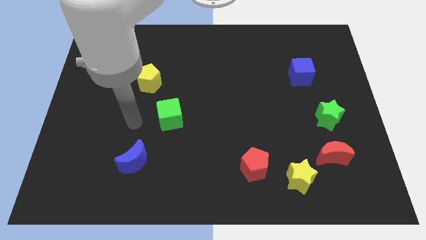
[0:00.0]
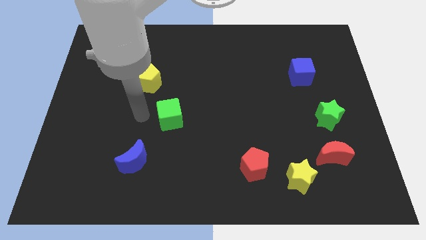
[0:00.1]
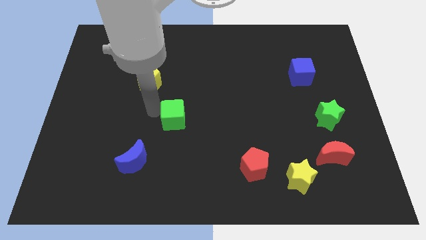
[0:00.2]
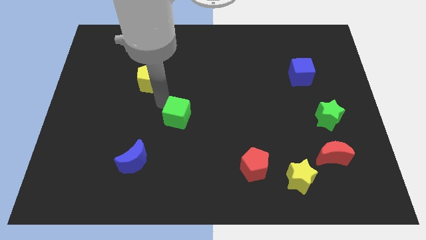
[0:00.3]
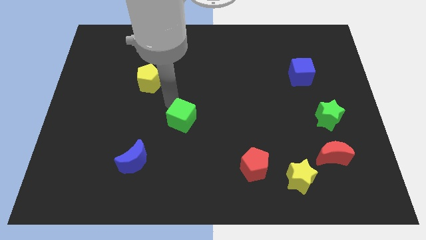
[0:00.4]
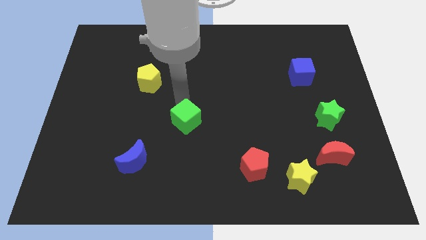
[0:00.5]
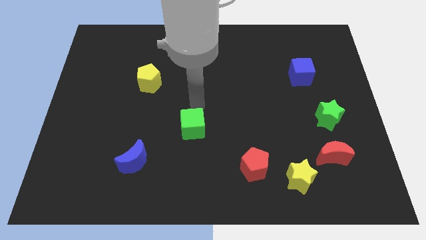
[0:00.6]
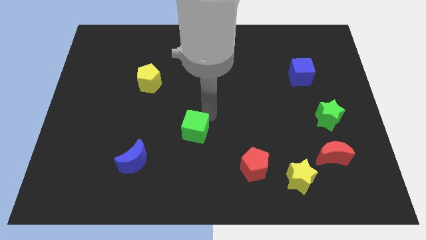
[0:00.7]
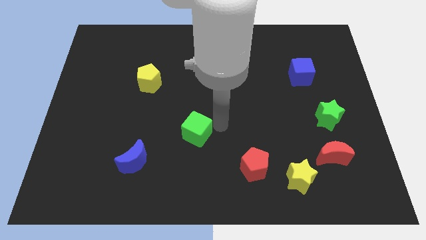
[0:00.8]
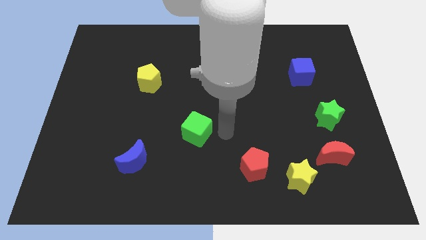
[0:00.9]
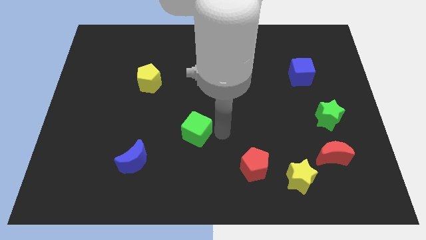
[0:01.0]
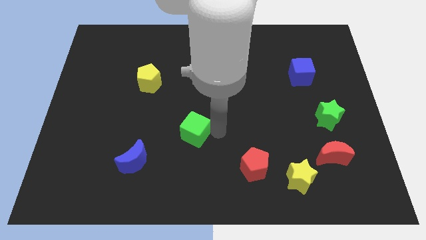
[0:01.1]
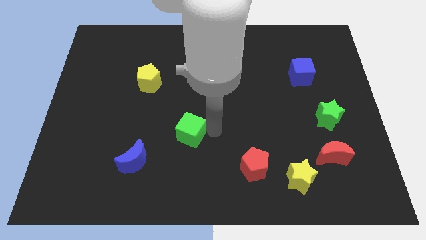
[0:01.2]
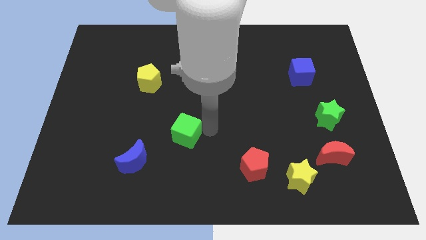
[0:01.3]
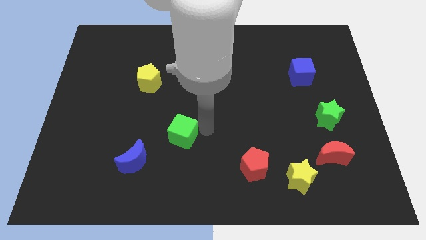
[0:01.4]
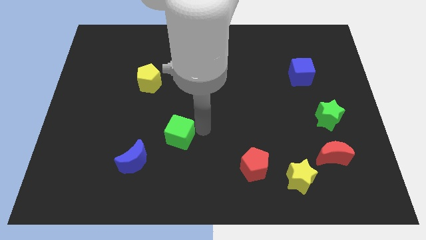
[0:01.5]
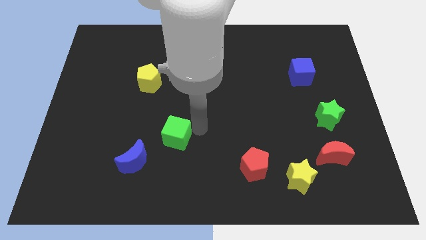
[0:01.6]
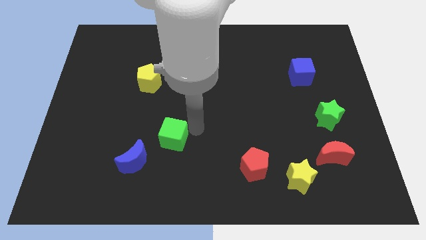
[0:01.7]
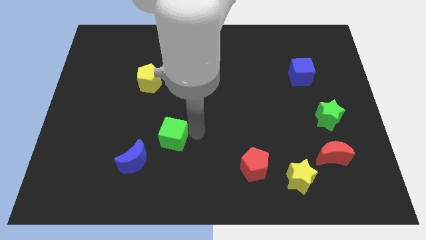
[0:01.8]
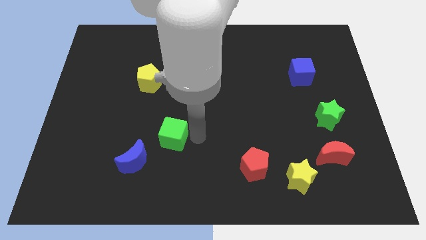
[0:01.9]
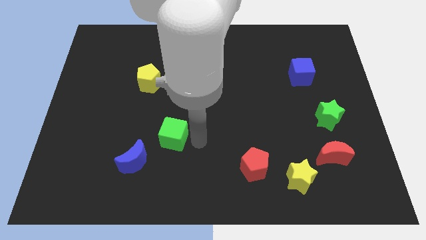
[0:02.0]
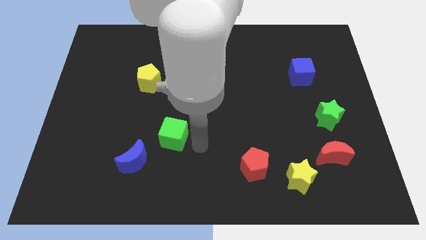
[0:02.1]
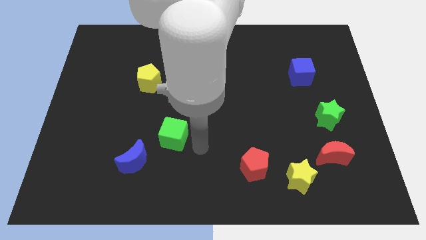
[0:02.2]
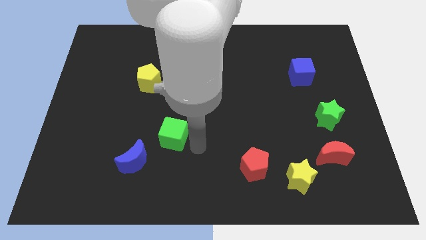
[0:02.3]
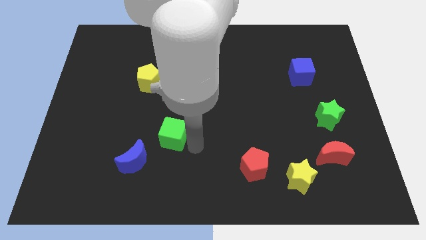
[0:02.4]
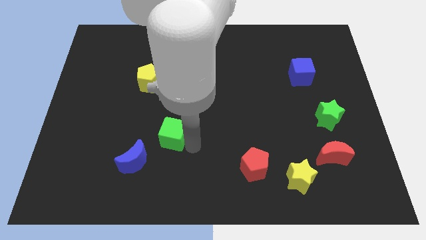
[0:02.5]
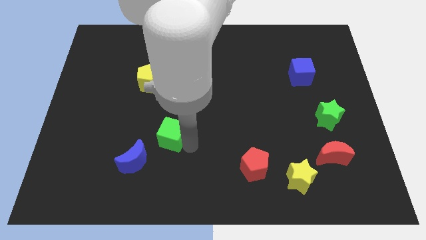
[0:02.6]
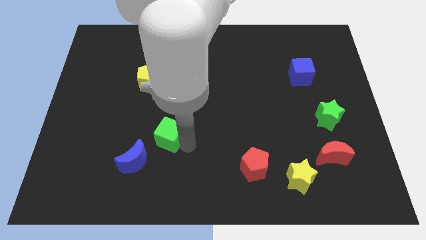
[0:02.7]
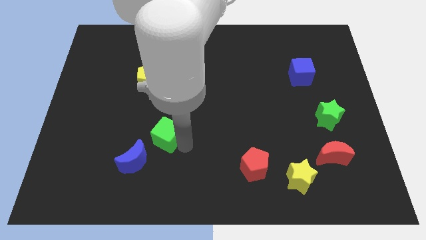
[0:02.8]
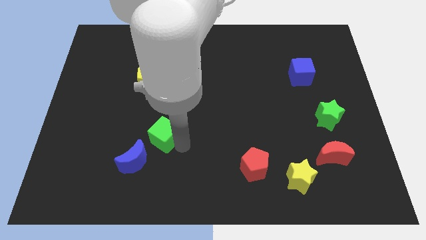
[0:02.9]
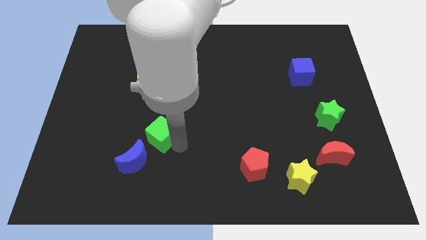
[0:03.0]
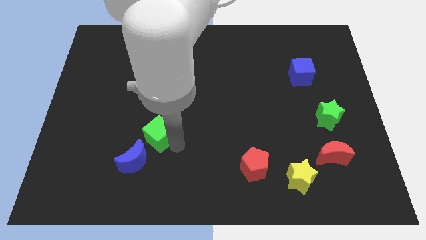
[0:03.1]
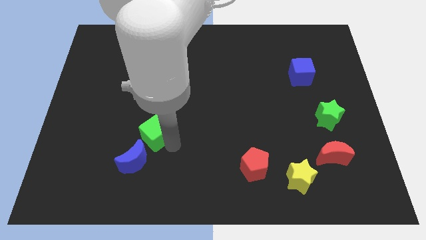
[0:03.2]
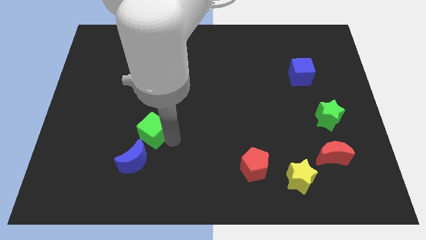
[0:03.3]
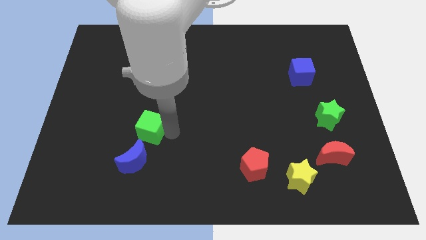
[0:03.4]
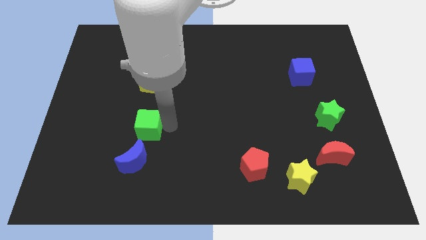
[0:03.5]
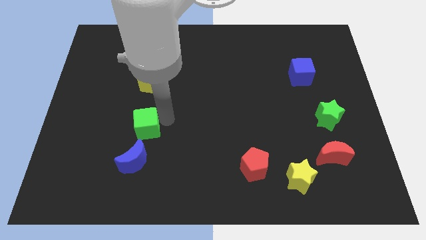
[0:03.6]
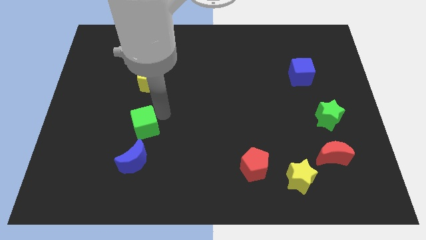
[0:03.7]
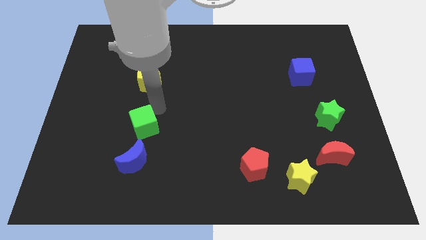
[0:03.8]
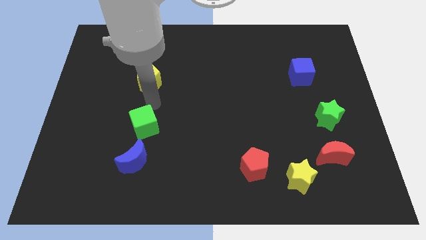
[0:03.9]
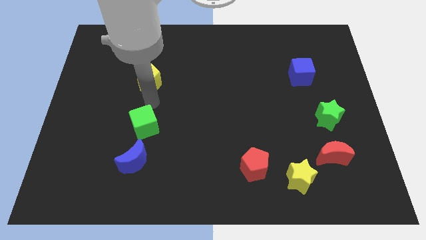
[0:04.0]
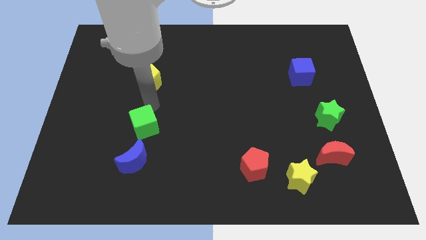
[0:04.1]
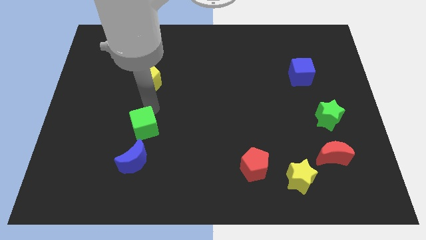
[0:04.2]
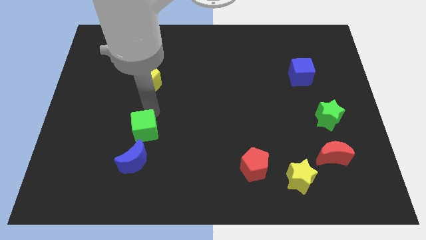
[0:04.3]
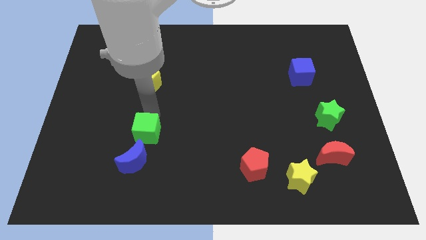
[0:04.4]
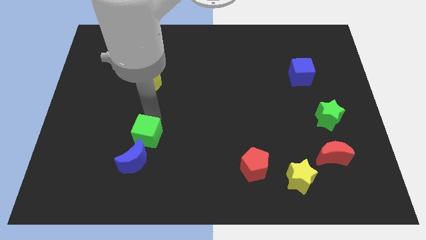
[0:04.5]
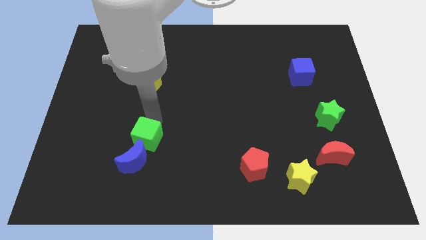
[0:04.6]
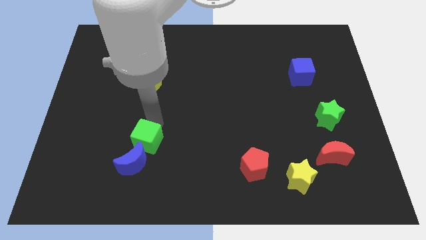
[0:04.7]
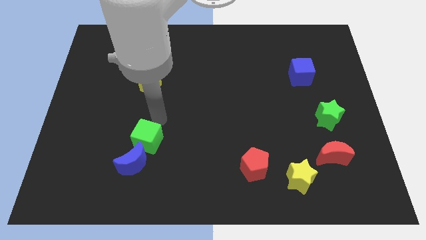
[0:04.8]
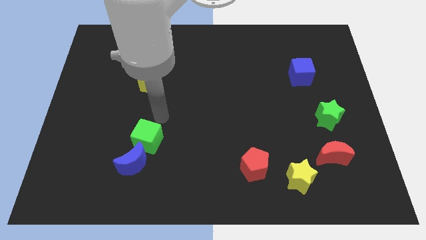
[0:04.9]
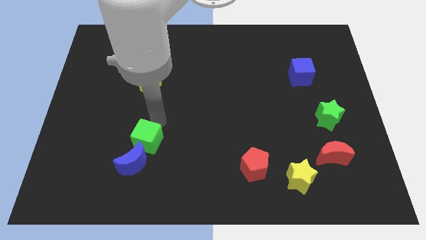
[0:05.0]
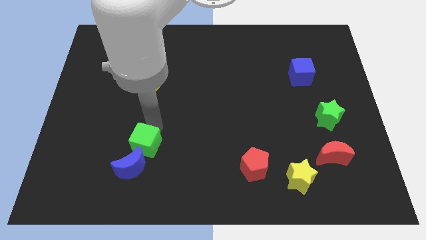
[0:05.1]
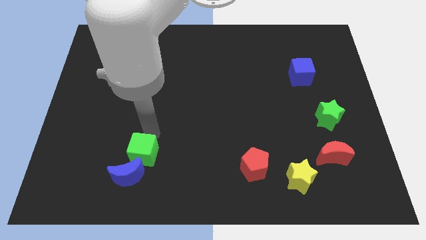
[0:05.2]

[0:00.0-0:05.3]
slide the green cube close to the blue moon

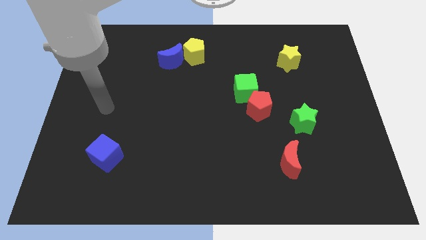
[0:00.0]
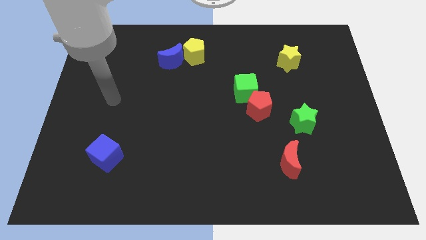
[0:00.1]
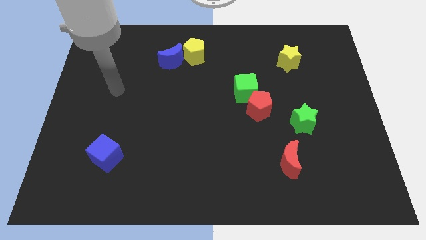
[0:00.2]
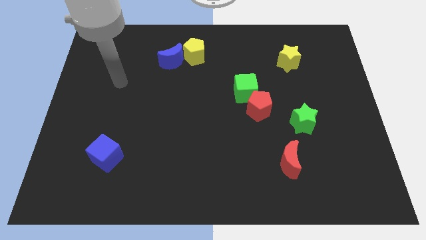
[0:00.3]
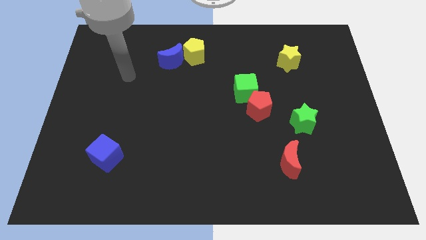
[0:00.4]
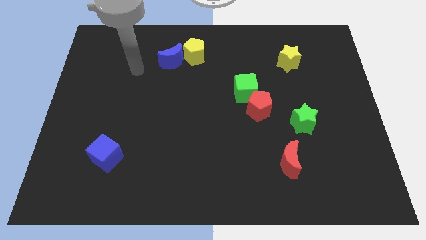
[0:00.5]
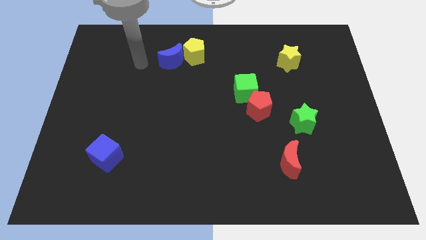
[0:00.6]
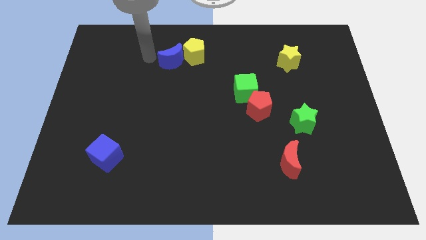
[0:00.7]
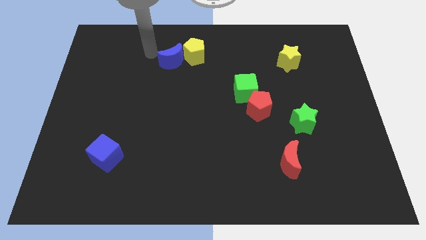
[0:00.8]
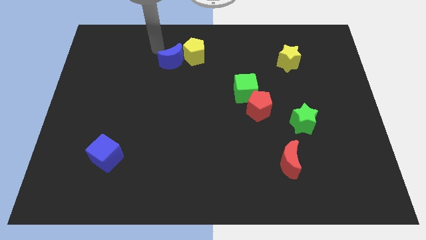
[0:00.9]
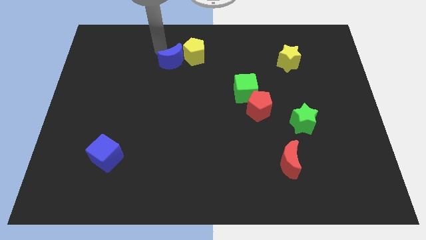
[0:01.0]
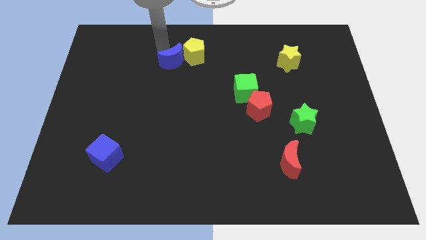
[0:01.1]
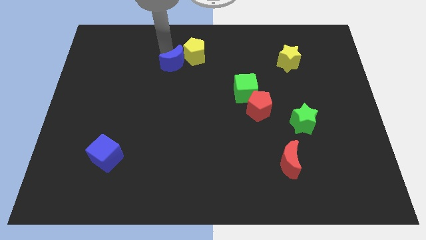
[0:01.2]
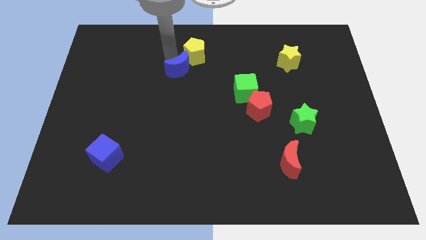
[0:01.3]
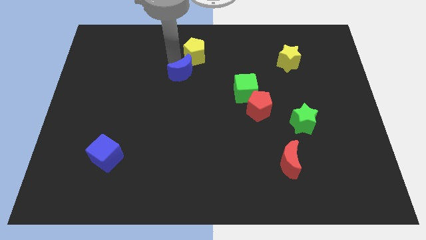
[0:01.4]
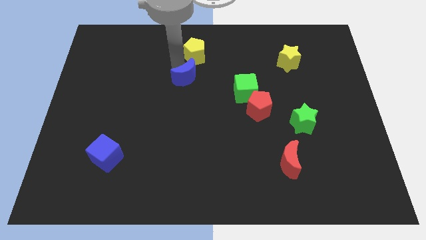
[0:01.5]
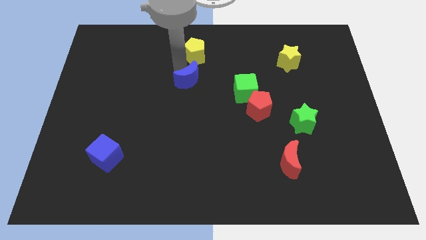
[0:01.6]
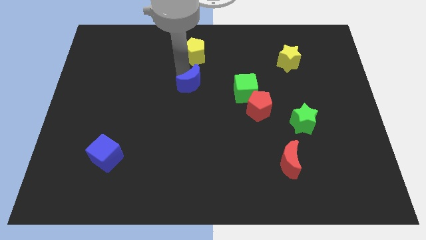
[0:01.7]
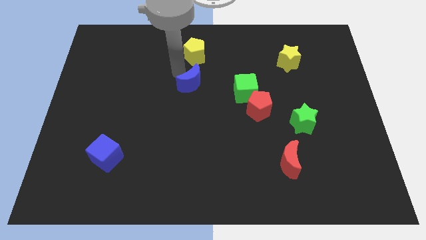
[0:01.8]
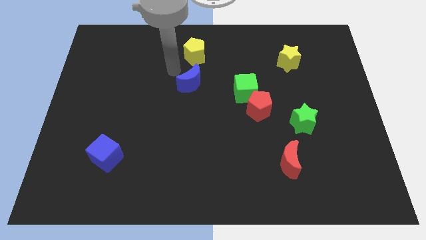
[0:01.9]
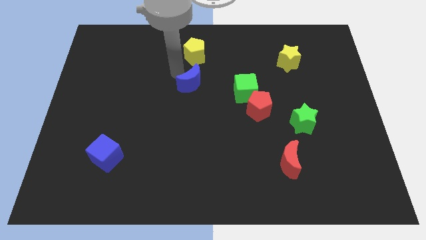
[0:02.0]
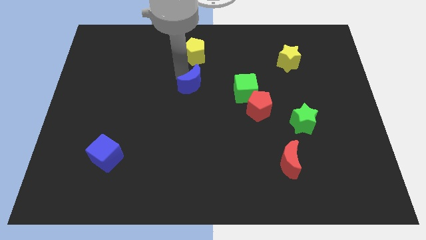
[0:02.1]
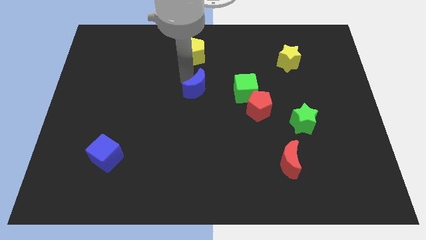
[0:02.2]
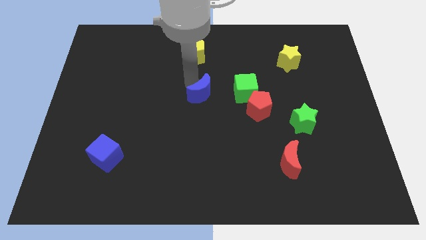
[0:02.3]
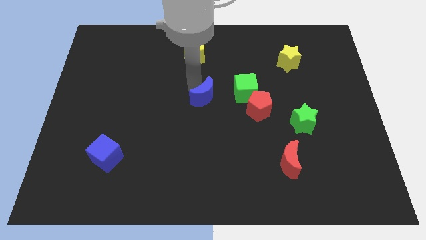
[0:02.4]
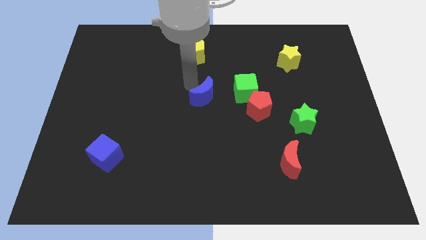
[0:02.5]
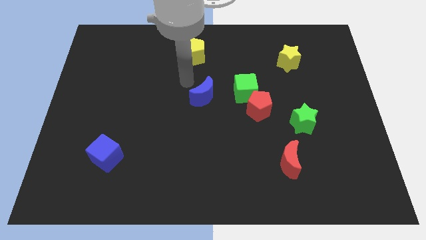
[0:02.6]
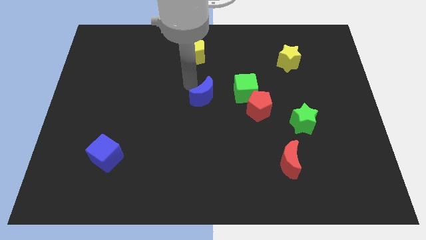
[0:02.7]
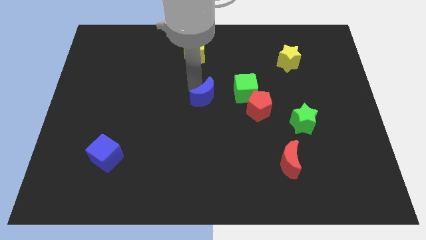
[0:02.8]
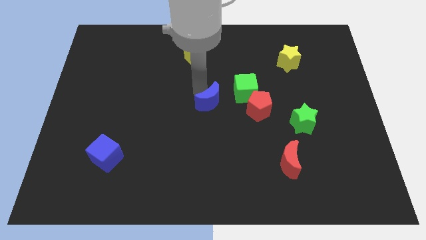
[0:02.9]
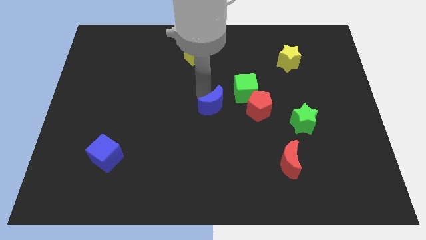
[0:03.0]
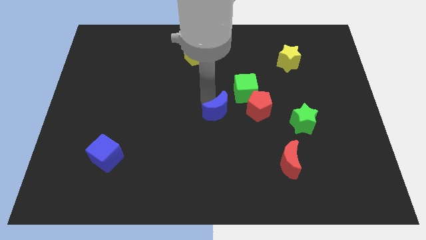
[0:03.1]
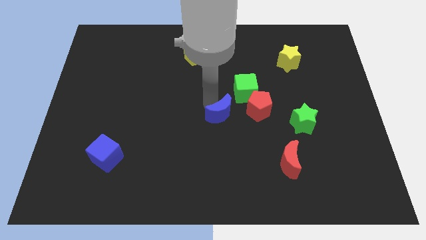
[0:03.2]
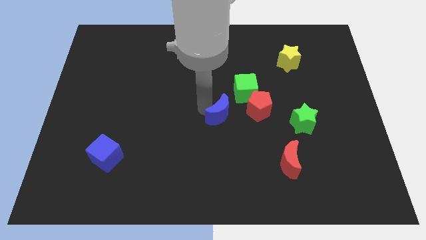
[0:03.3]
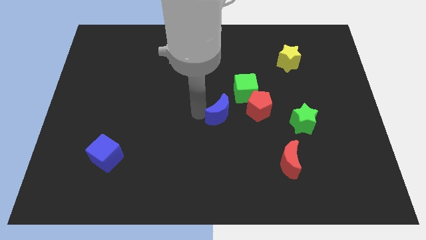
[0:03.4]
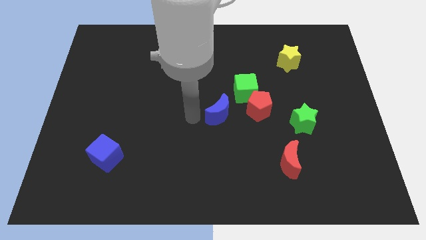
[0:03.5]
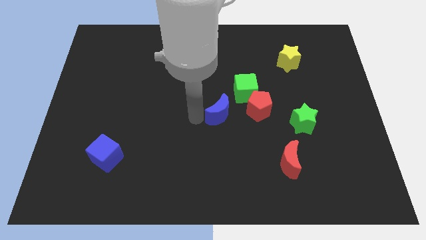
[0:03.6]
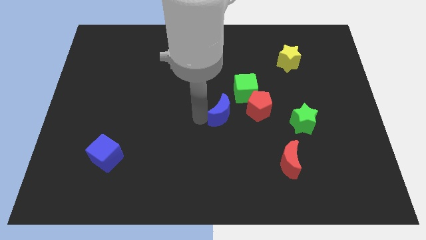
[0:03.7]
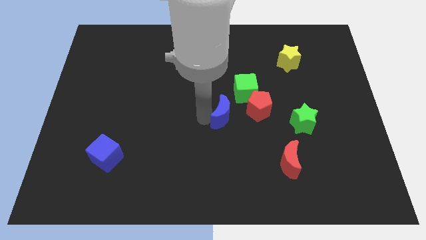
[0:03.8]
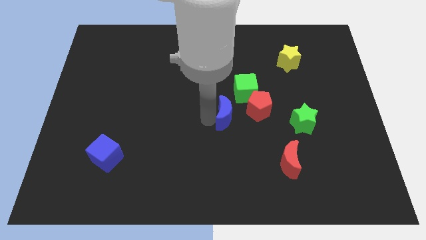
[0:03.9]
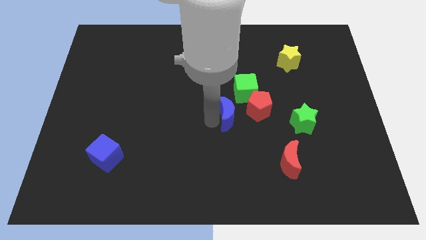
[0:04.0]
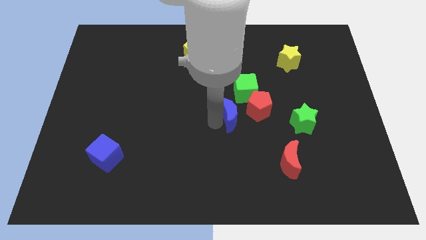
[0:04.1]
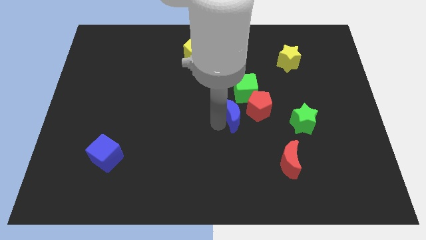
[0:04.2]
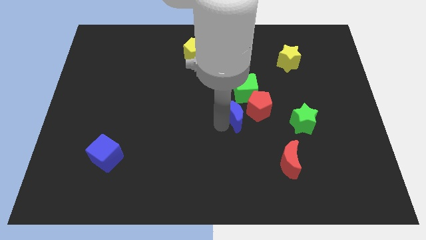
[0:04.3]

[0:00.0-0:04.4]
put the blue moon to the red pentagon
